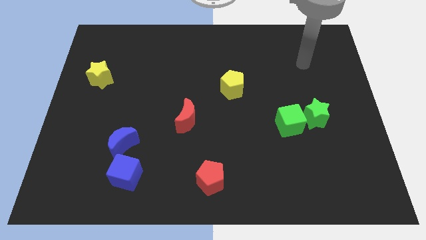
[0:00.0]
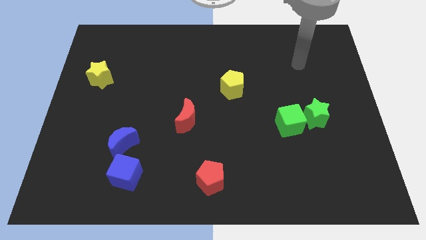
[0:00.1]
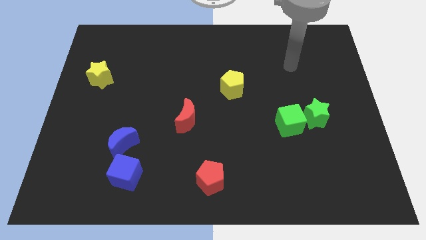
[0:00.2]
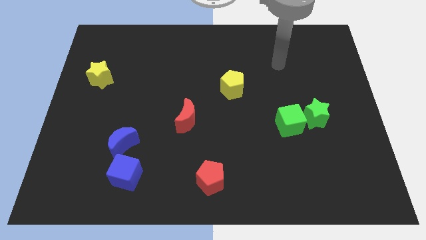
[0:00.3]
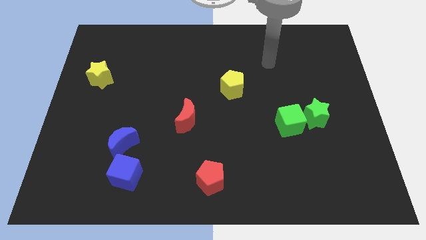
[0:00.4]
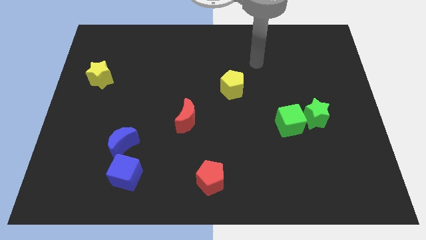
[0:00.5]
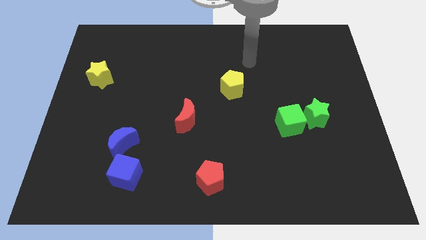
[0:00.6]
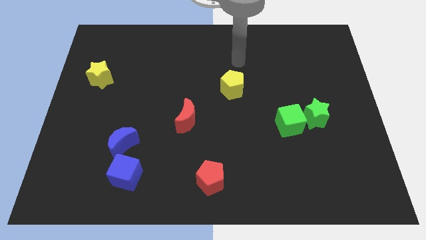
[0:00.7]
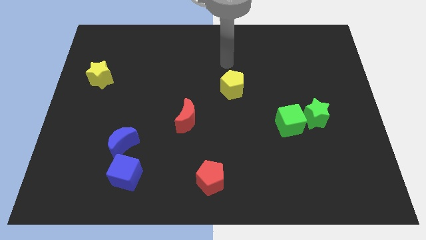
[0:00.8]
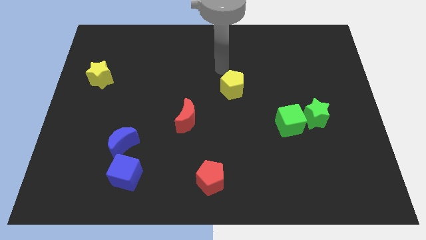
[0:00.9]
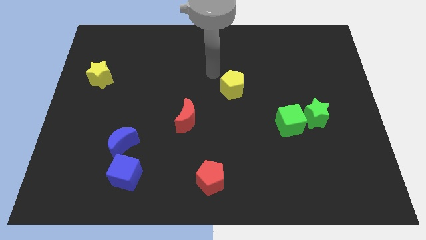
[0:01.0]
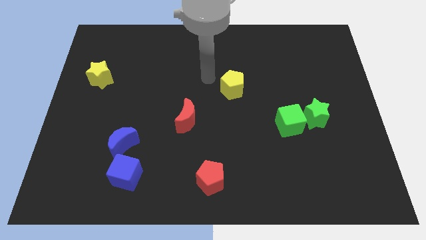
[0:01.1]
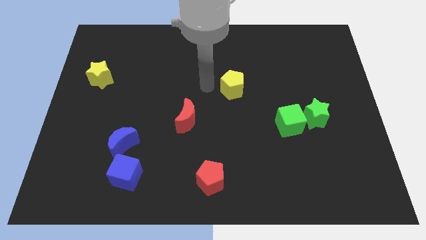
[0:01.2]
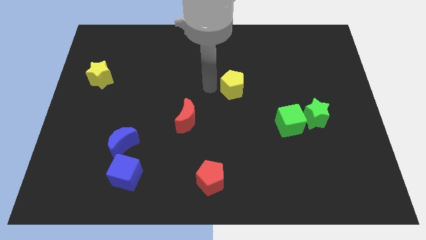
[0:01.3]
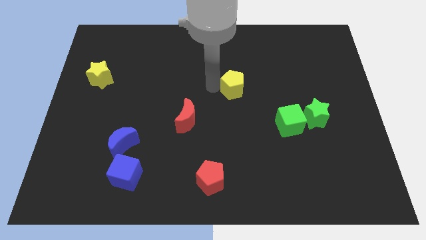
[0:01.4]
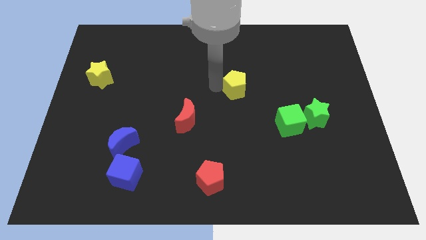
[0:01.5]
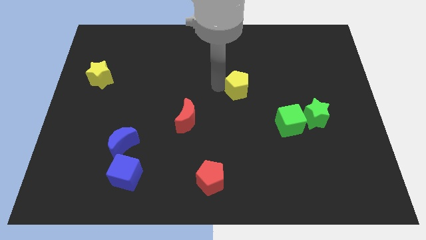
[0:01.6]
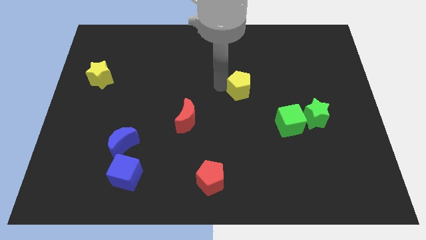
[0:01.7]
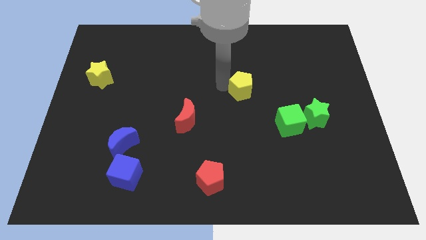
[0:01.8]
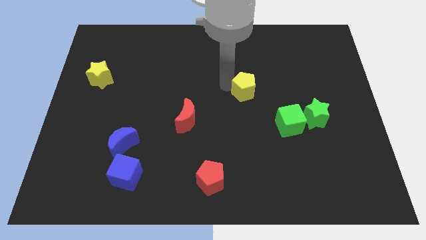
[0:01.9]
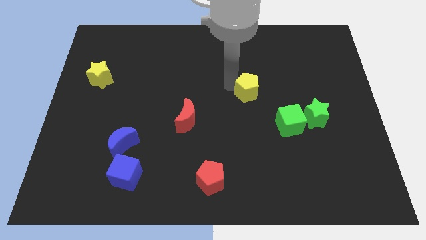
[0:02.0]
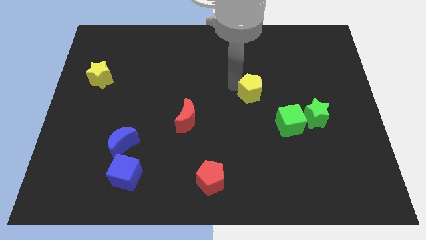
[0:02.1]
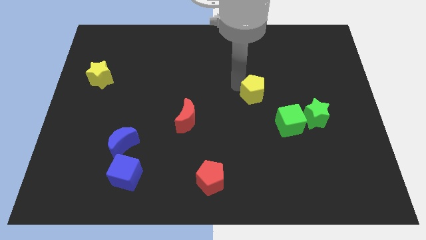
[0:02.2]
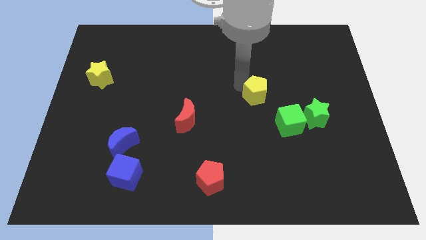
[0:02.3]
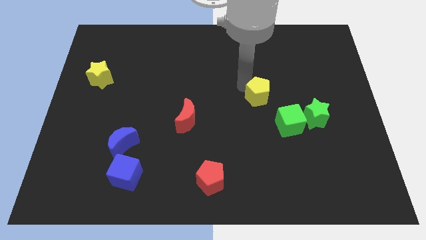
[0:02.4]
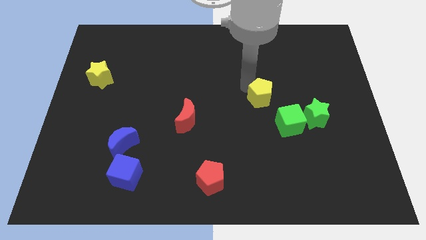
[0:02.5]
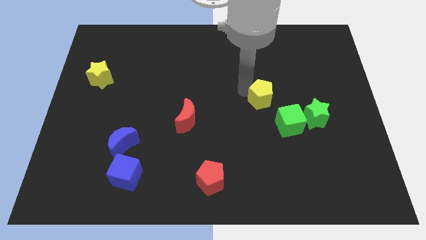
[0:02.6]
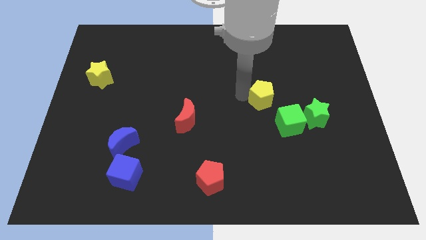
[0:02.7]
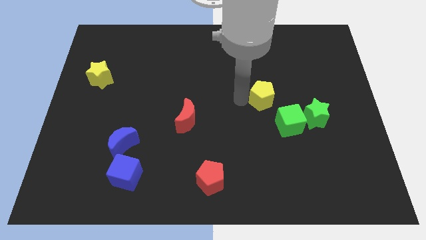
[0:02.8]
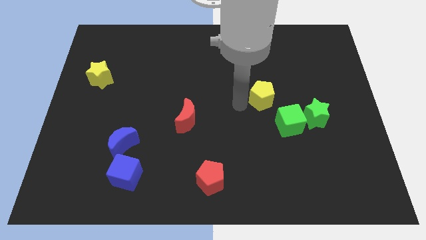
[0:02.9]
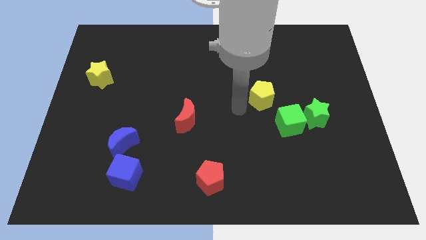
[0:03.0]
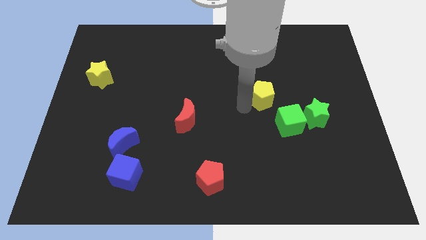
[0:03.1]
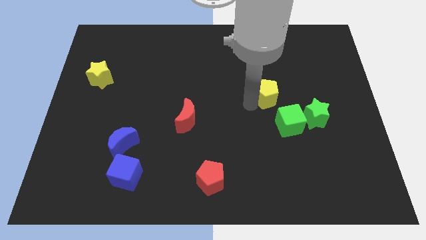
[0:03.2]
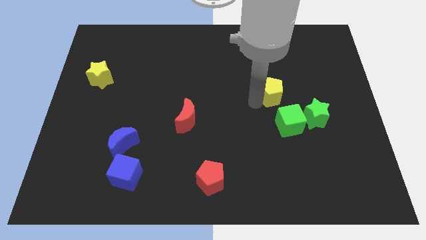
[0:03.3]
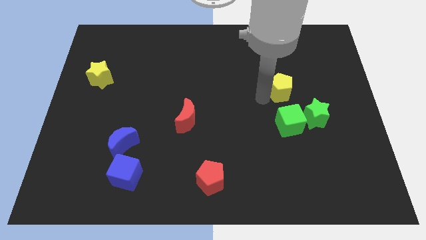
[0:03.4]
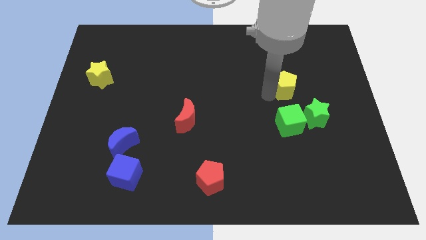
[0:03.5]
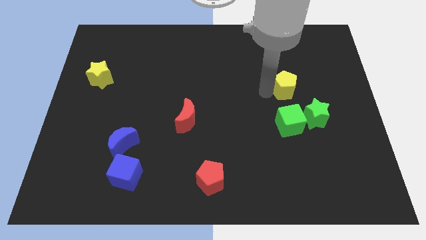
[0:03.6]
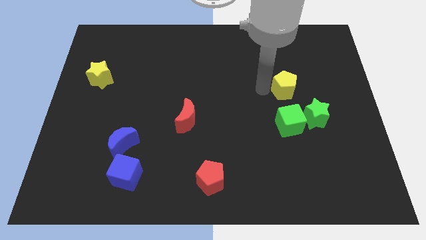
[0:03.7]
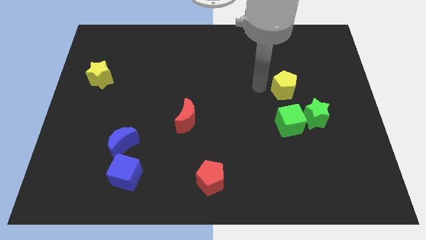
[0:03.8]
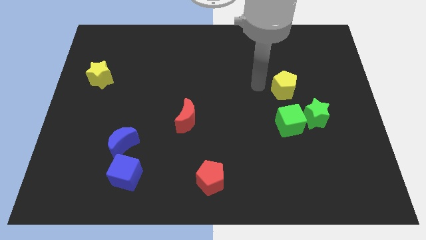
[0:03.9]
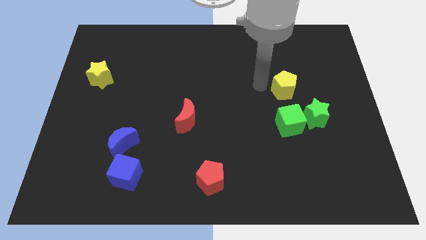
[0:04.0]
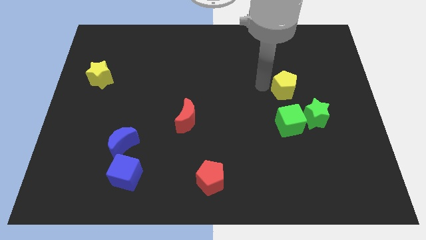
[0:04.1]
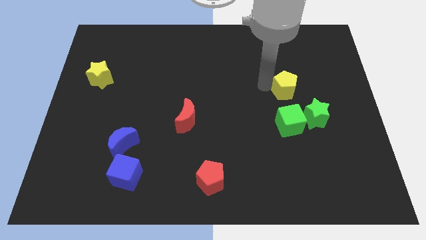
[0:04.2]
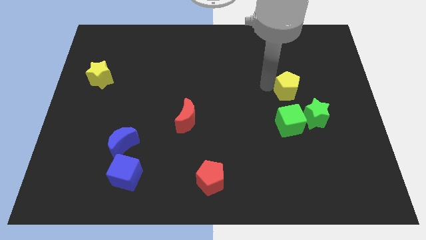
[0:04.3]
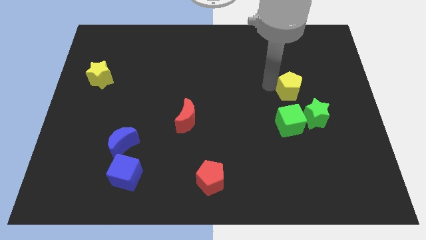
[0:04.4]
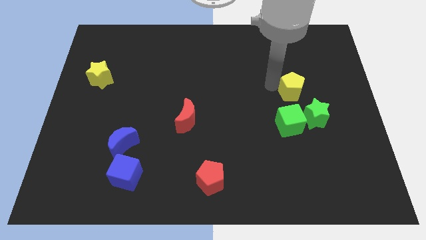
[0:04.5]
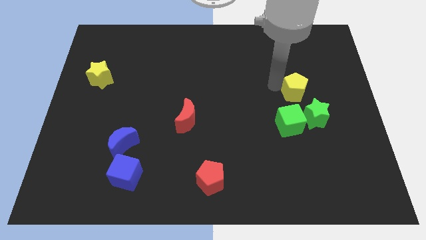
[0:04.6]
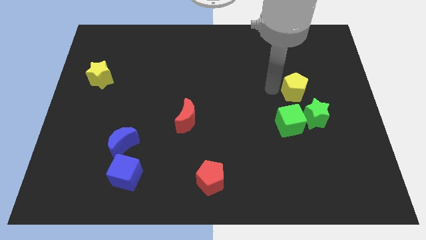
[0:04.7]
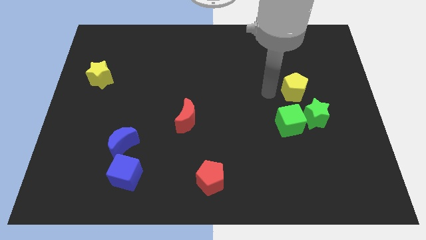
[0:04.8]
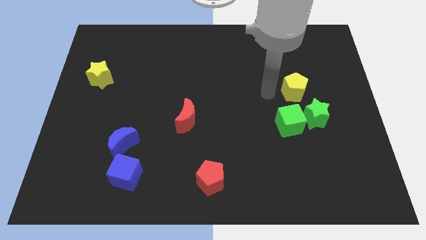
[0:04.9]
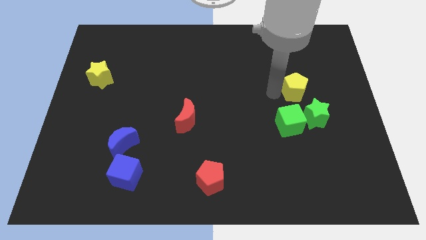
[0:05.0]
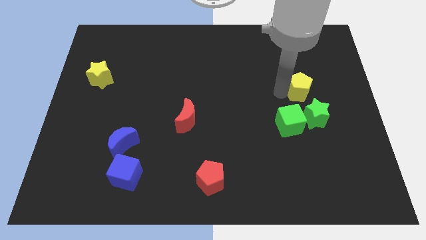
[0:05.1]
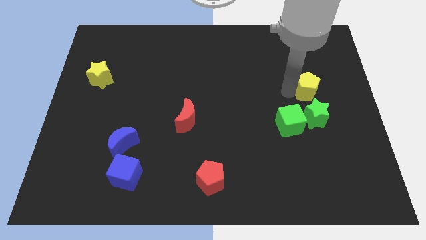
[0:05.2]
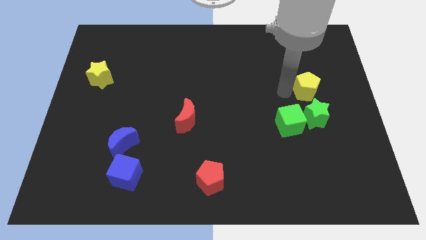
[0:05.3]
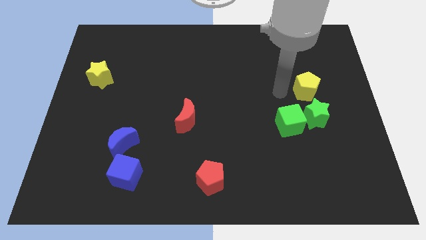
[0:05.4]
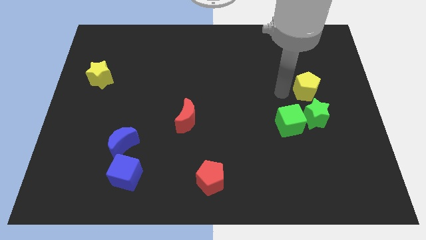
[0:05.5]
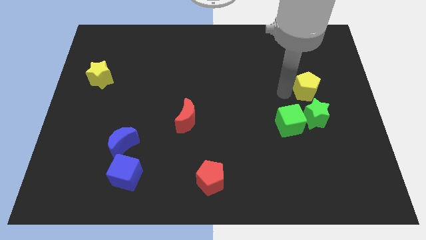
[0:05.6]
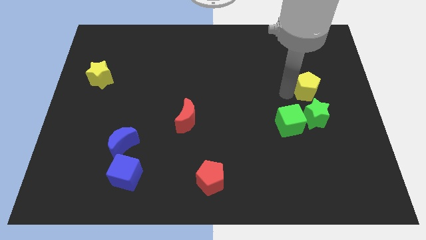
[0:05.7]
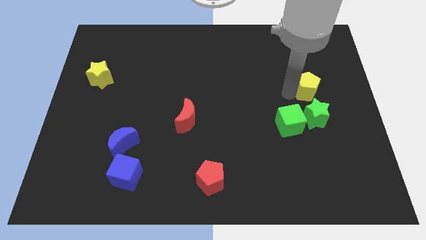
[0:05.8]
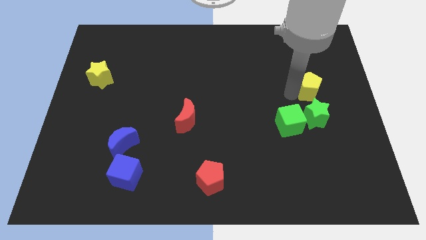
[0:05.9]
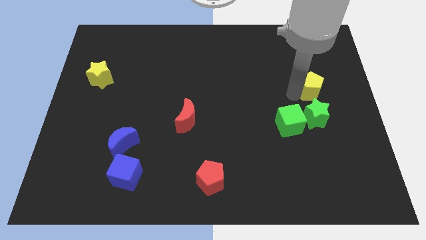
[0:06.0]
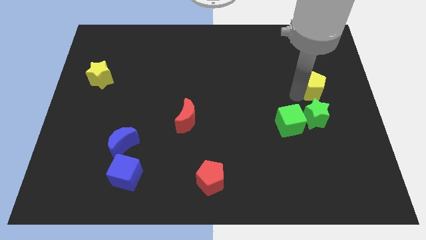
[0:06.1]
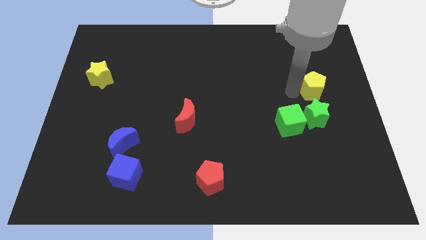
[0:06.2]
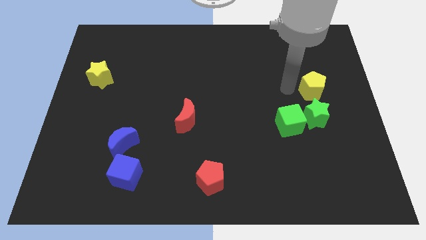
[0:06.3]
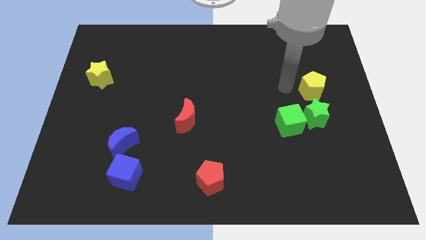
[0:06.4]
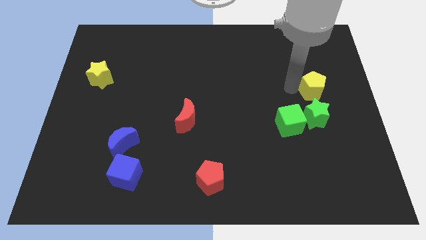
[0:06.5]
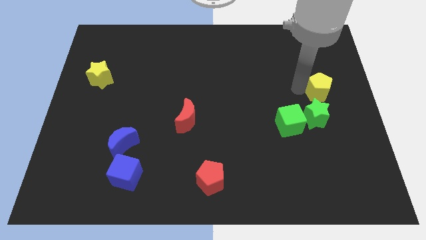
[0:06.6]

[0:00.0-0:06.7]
slide the yellow pentagon to the right side

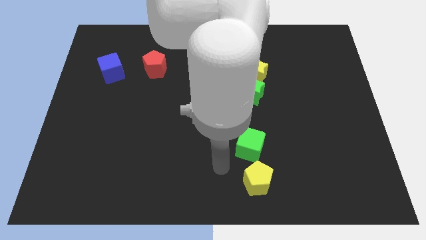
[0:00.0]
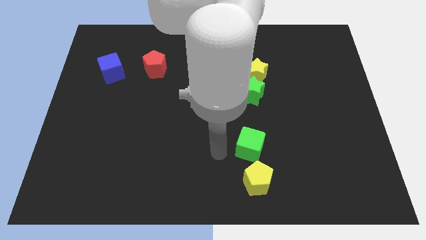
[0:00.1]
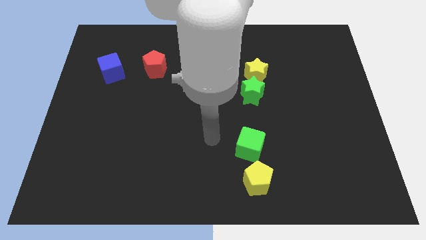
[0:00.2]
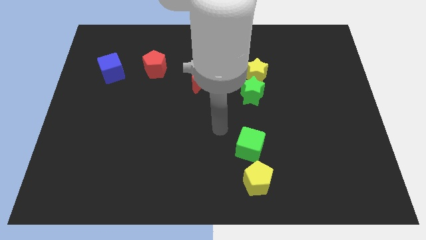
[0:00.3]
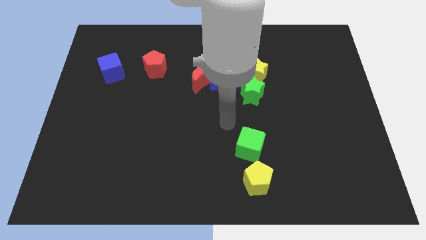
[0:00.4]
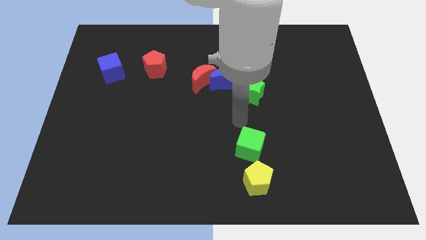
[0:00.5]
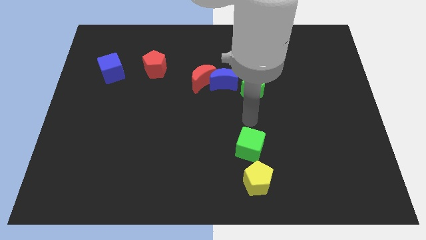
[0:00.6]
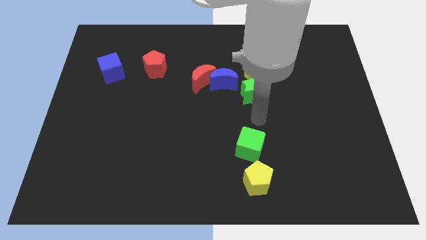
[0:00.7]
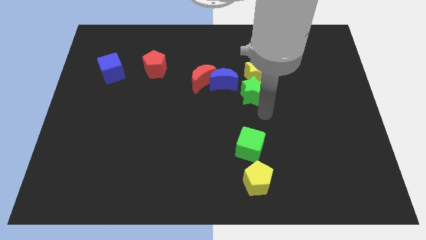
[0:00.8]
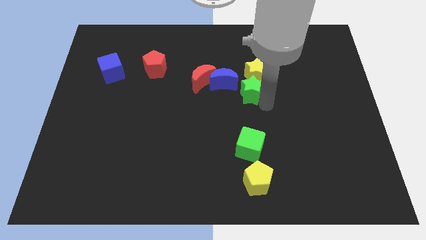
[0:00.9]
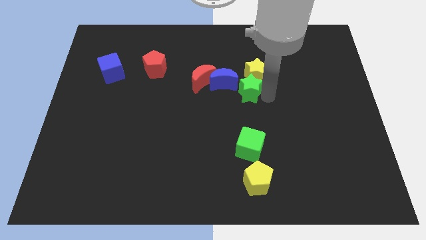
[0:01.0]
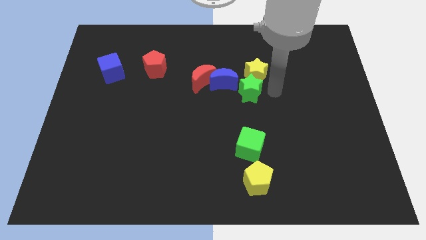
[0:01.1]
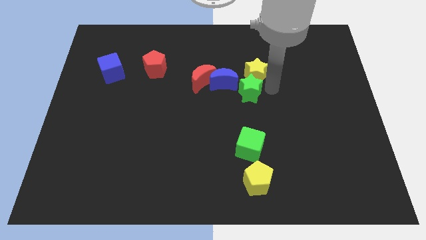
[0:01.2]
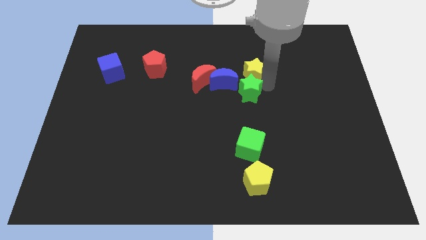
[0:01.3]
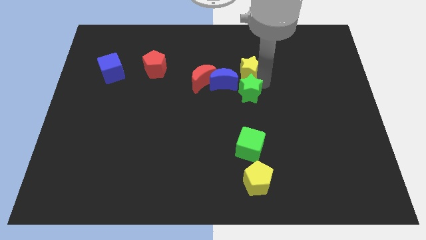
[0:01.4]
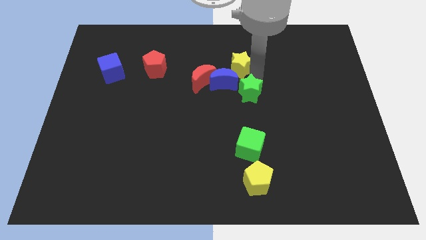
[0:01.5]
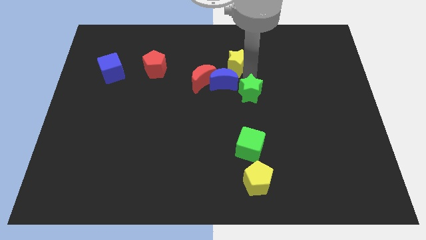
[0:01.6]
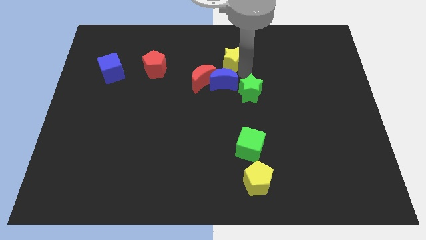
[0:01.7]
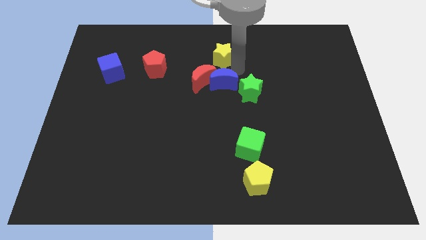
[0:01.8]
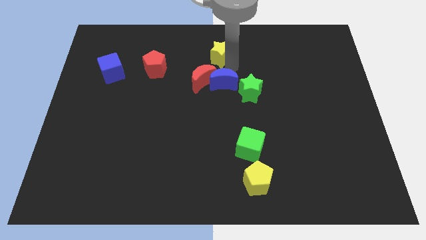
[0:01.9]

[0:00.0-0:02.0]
slide the yellow star to the towards your base
